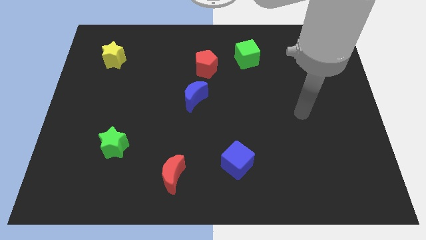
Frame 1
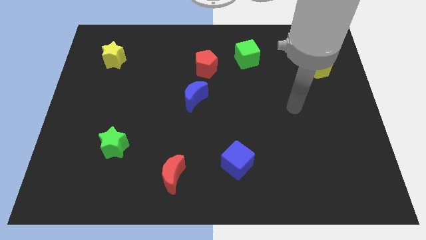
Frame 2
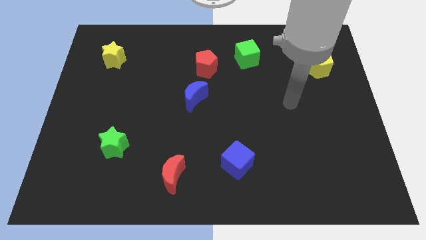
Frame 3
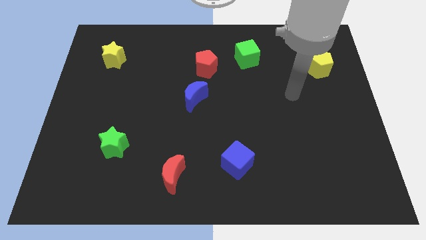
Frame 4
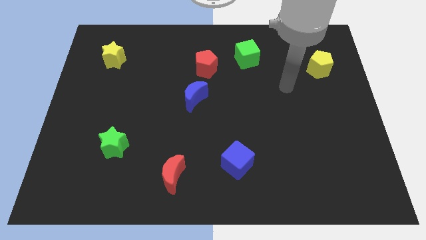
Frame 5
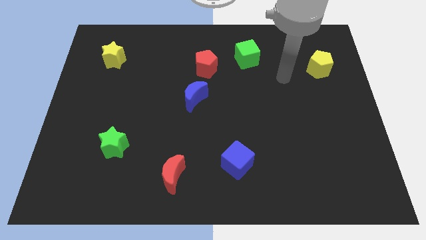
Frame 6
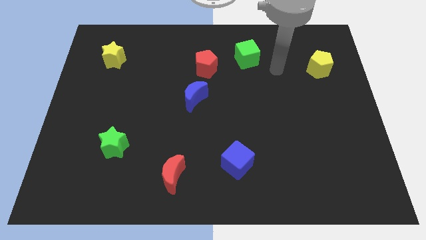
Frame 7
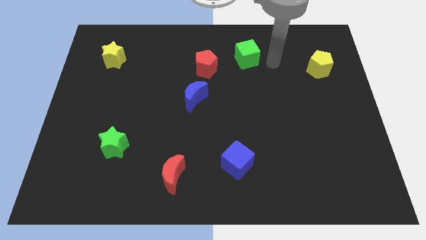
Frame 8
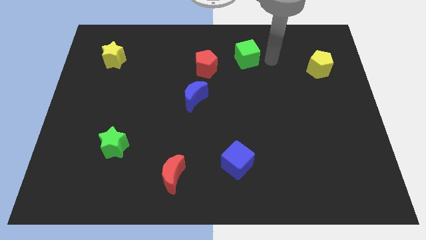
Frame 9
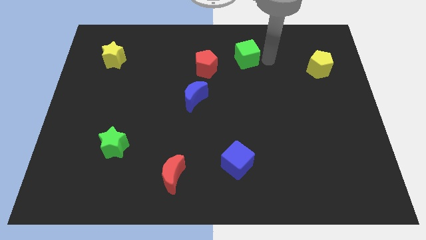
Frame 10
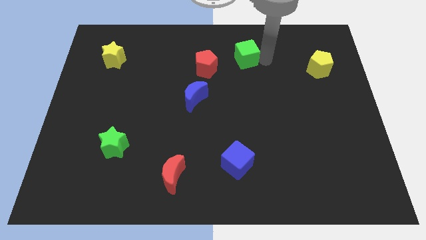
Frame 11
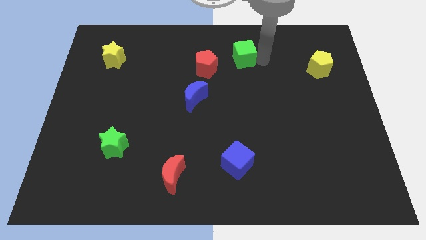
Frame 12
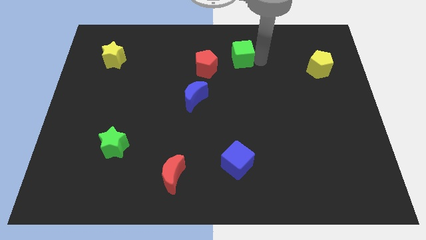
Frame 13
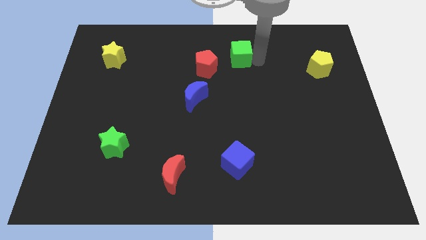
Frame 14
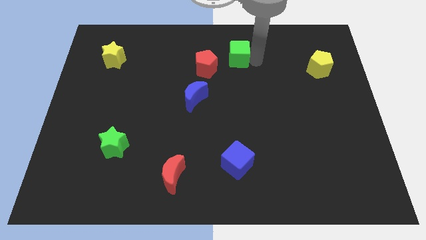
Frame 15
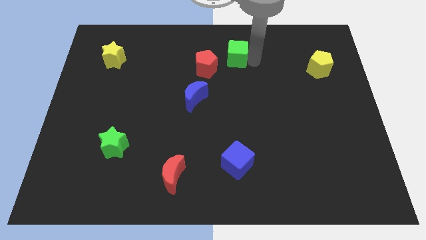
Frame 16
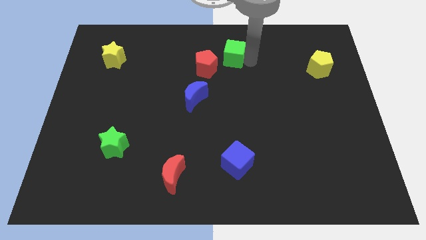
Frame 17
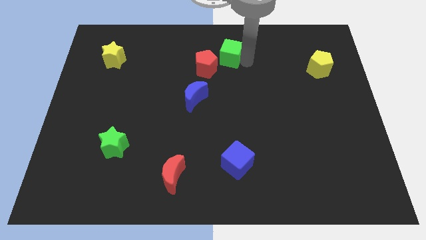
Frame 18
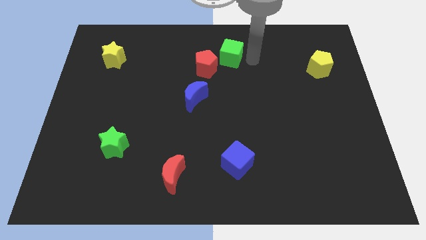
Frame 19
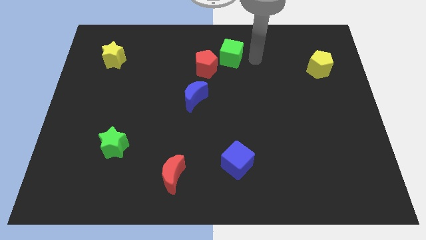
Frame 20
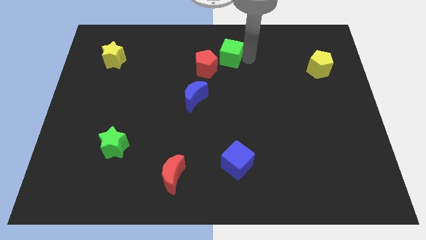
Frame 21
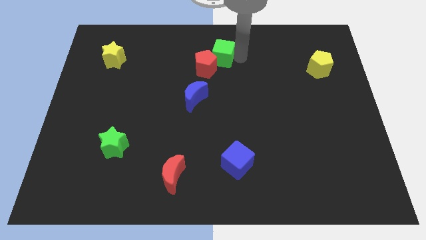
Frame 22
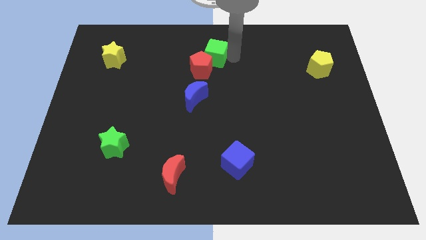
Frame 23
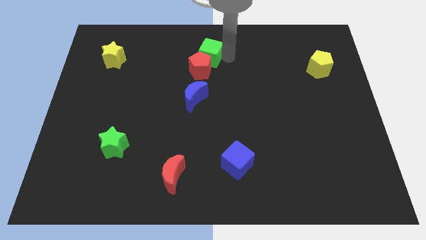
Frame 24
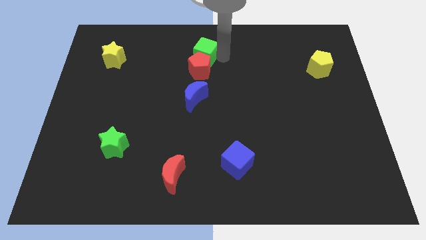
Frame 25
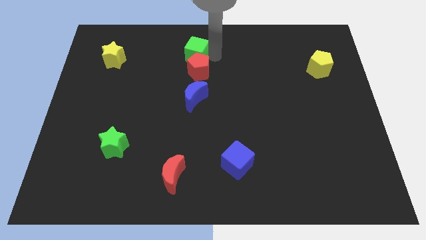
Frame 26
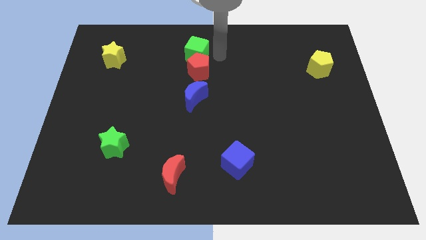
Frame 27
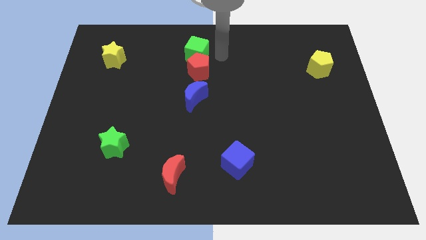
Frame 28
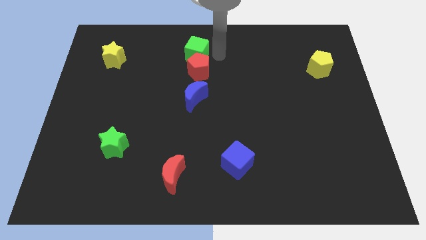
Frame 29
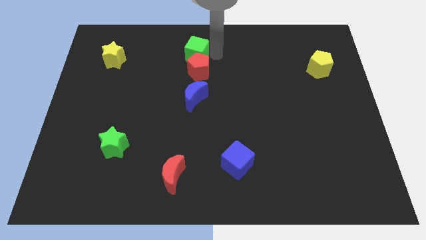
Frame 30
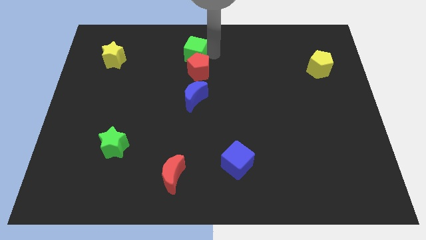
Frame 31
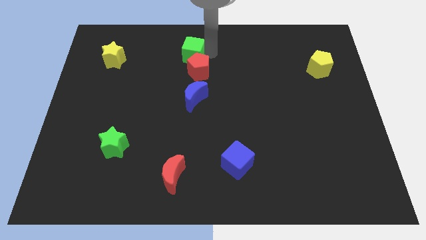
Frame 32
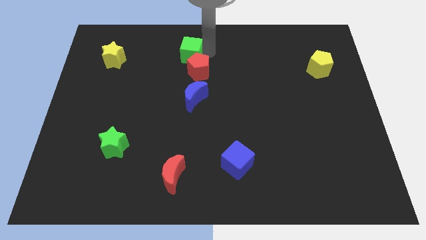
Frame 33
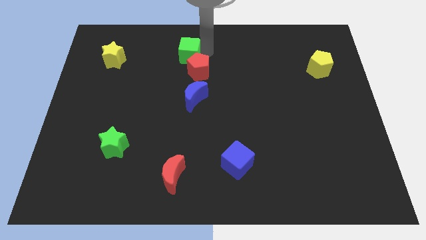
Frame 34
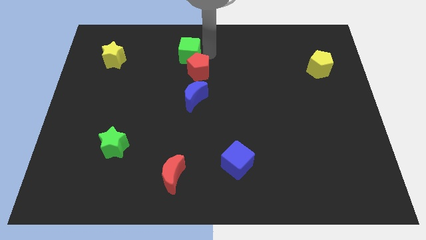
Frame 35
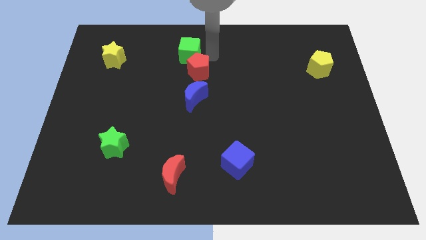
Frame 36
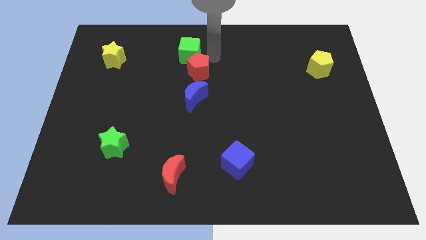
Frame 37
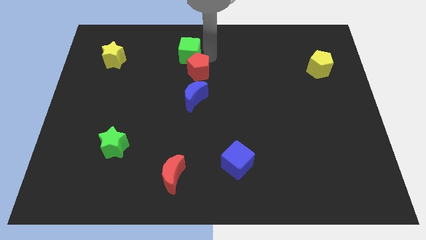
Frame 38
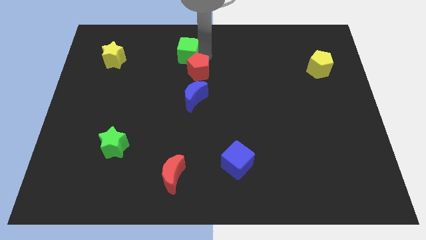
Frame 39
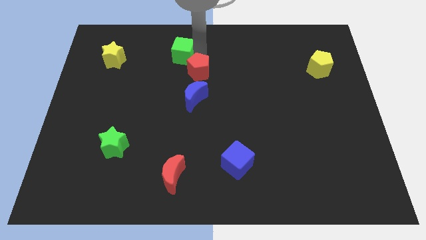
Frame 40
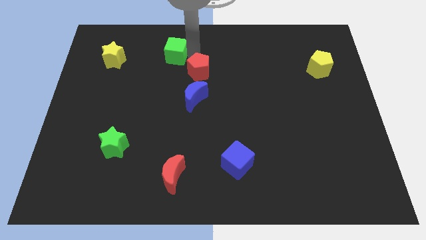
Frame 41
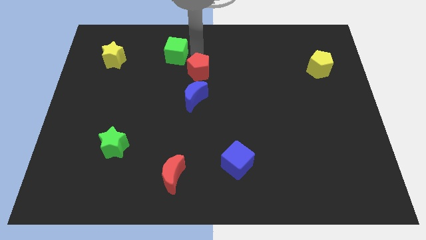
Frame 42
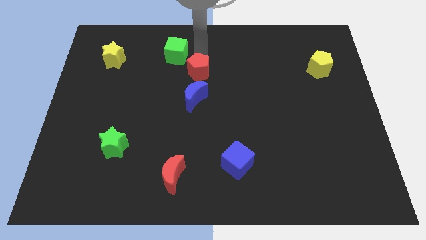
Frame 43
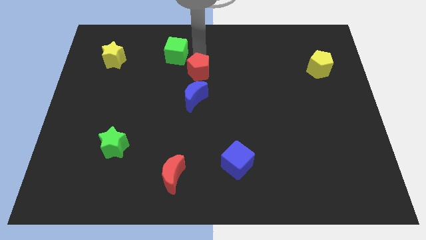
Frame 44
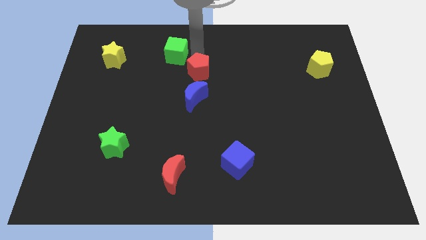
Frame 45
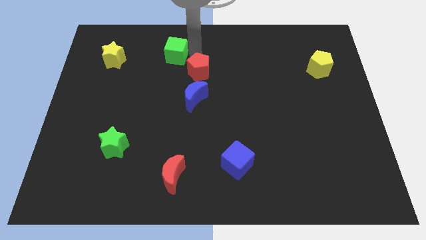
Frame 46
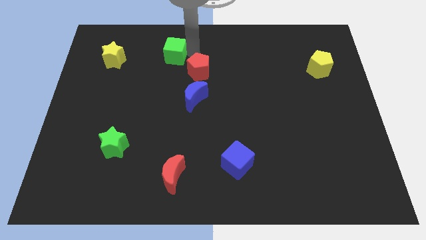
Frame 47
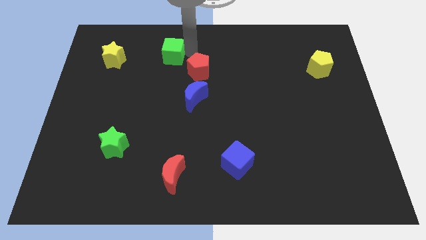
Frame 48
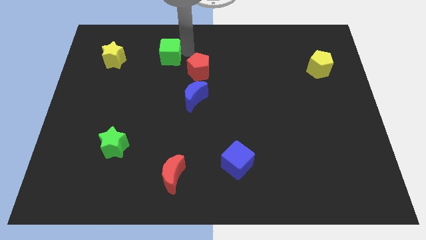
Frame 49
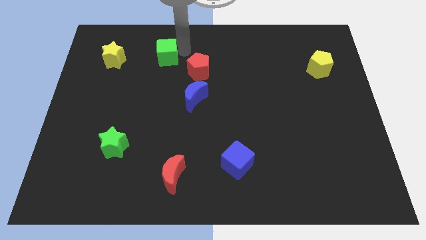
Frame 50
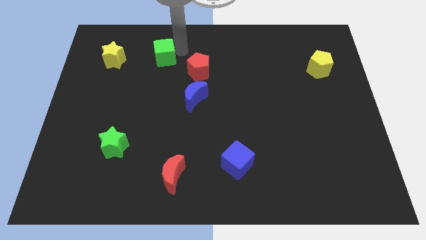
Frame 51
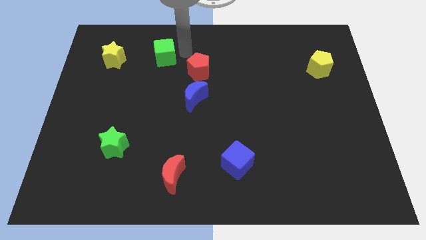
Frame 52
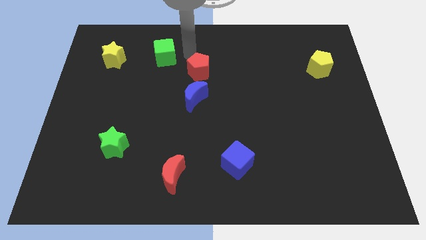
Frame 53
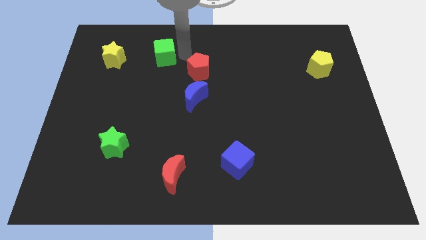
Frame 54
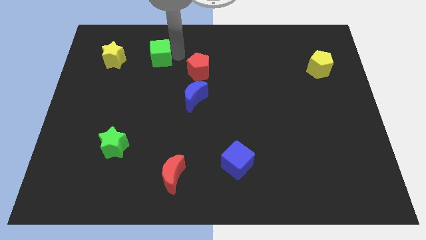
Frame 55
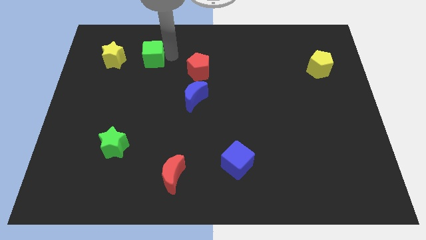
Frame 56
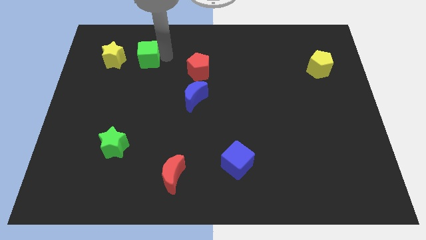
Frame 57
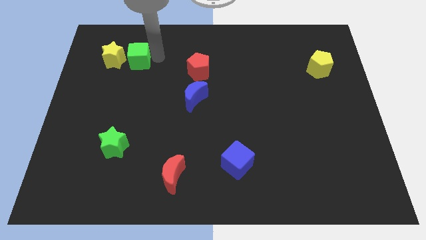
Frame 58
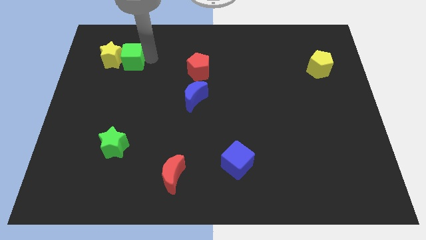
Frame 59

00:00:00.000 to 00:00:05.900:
put the green cube towards the yellow star

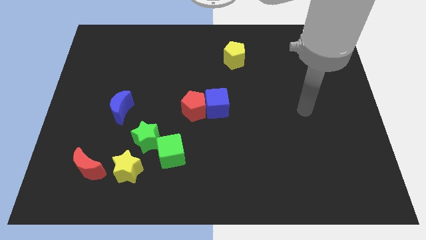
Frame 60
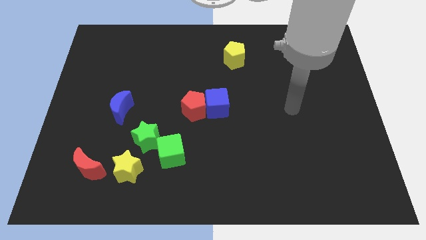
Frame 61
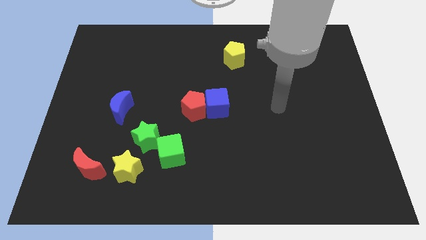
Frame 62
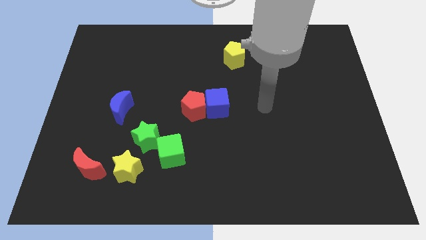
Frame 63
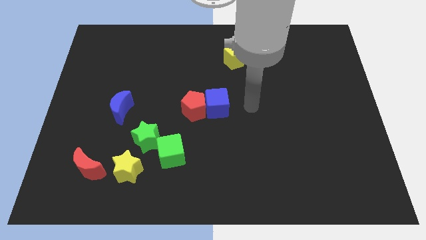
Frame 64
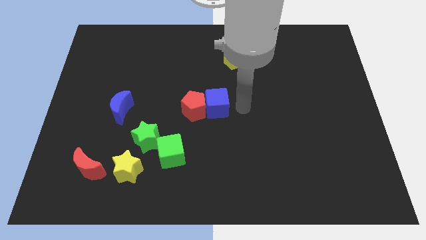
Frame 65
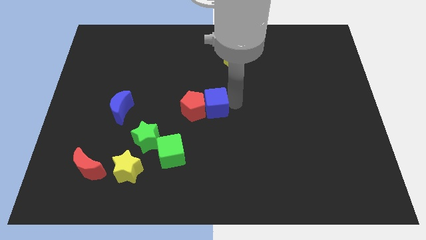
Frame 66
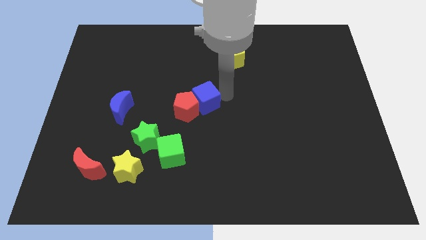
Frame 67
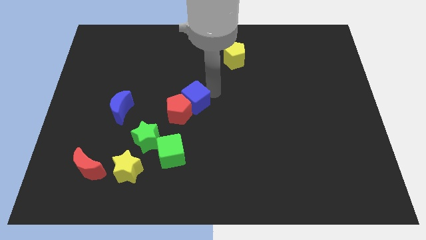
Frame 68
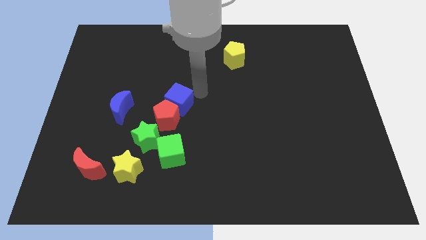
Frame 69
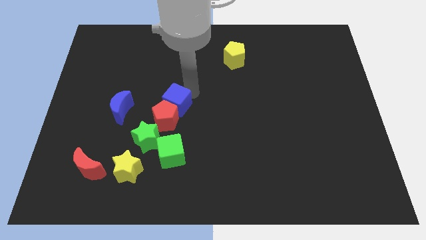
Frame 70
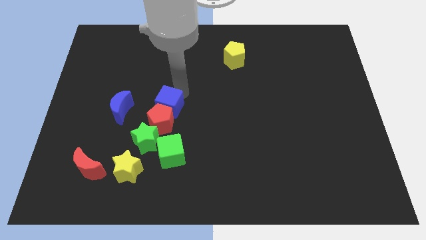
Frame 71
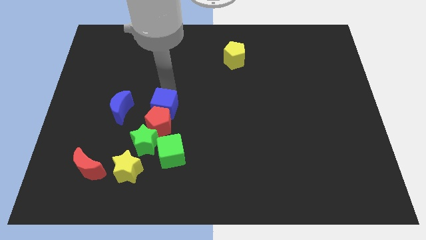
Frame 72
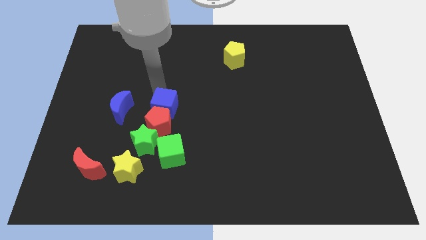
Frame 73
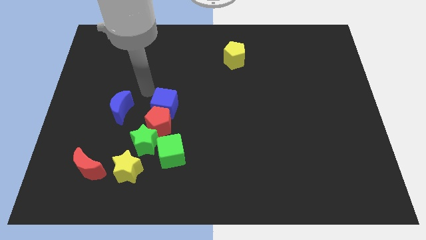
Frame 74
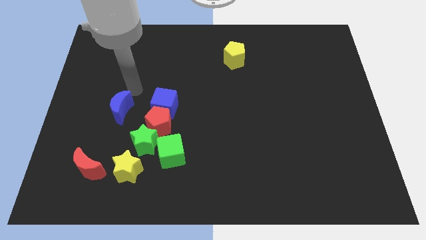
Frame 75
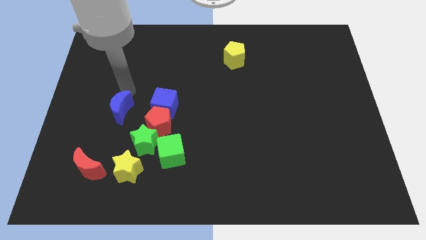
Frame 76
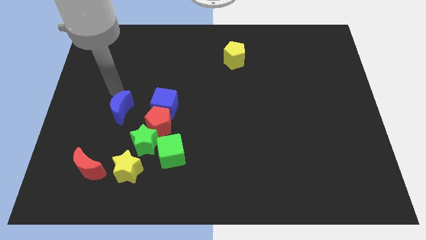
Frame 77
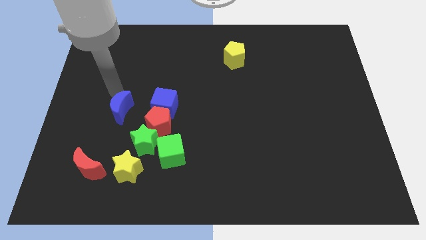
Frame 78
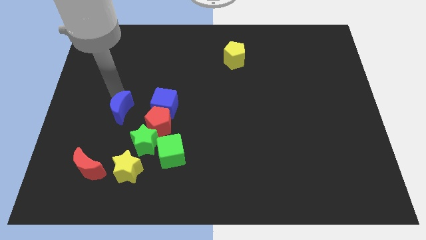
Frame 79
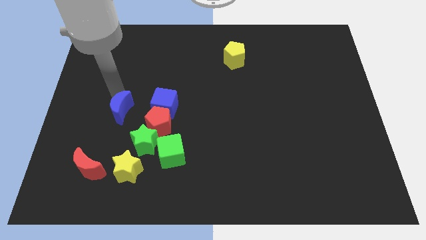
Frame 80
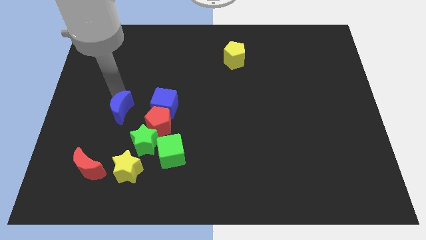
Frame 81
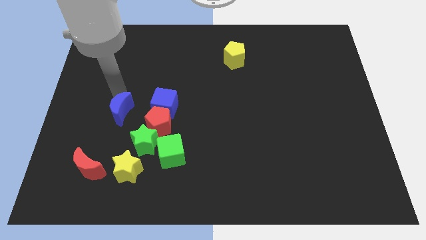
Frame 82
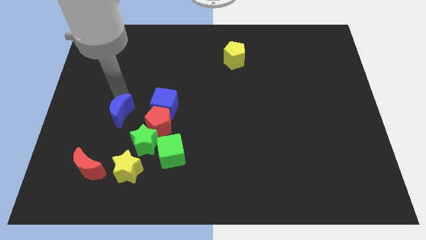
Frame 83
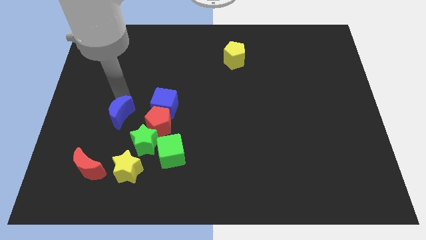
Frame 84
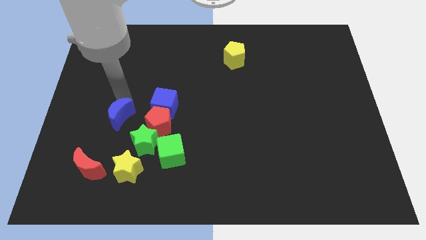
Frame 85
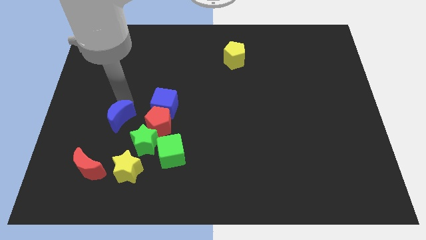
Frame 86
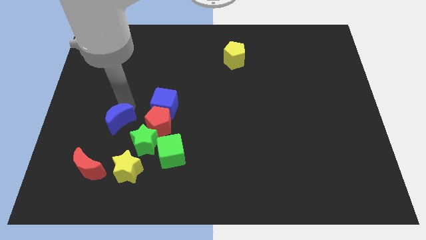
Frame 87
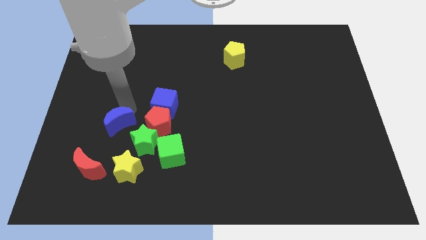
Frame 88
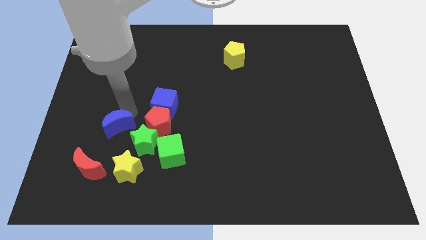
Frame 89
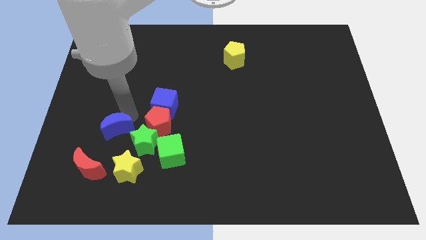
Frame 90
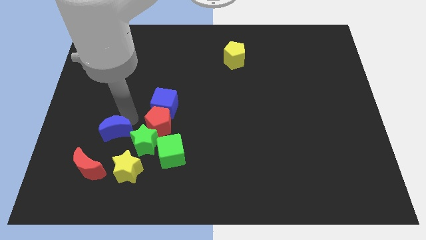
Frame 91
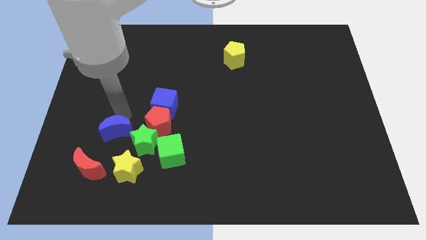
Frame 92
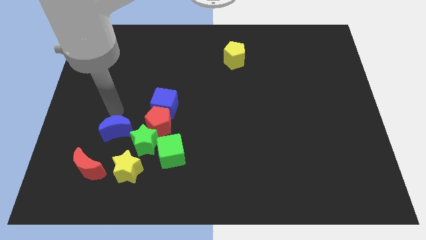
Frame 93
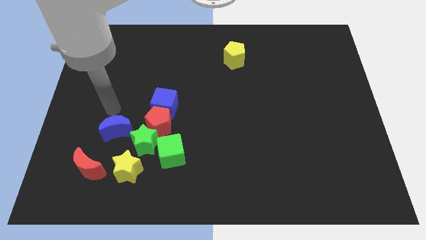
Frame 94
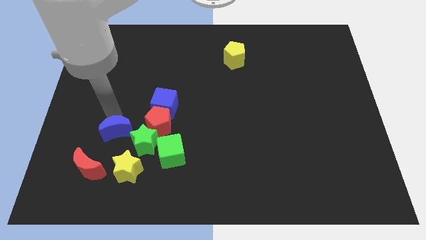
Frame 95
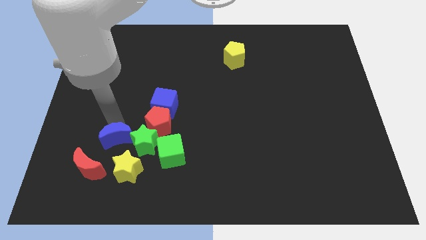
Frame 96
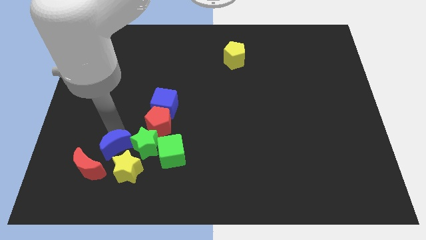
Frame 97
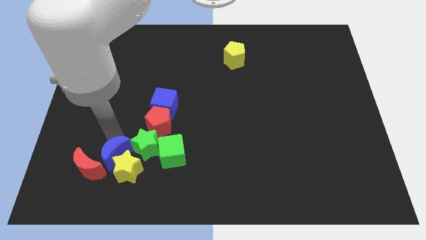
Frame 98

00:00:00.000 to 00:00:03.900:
put the blue moon close to the yellow star
